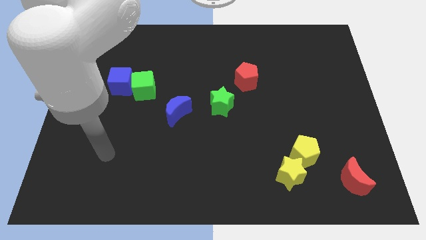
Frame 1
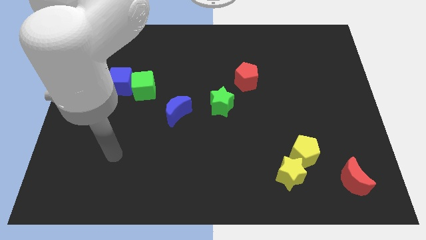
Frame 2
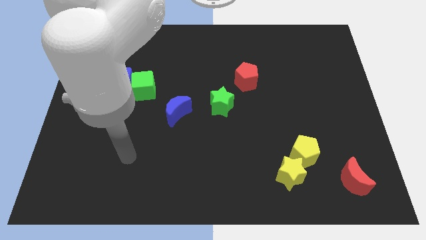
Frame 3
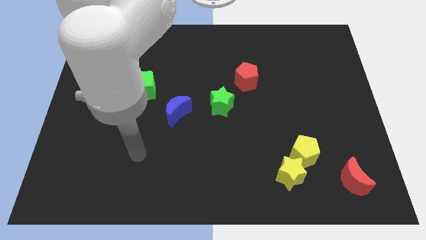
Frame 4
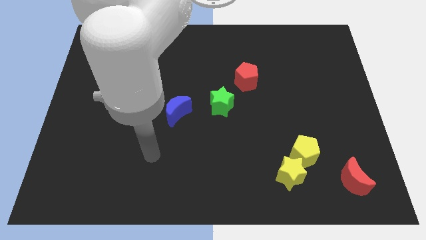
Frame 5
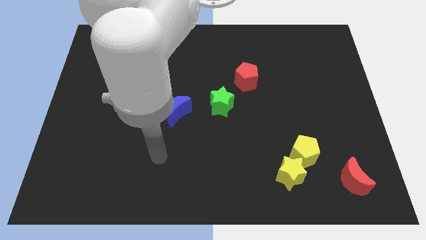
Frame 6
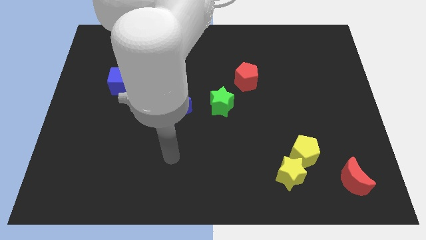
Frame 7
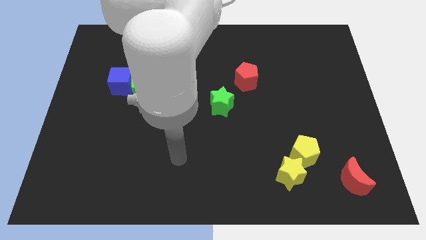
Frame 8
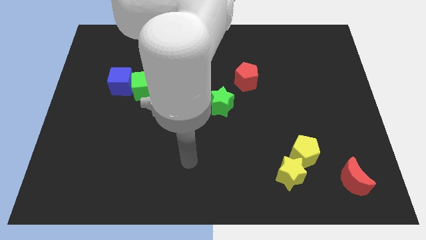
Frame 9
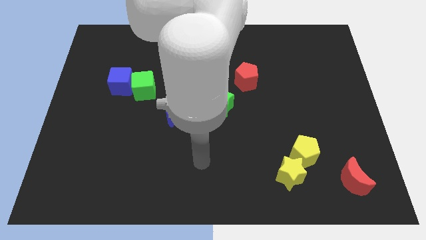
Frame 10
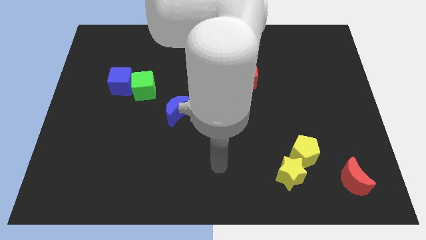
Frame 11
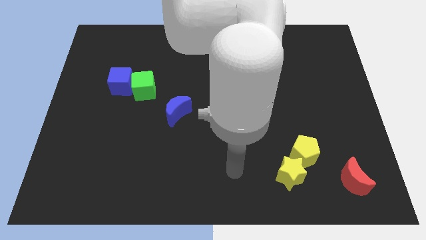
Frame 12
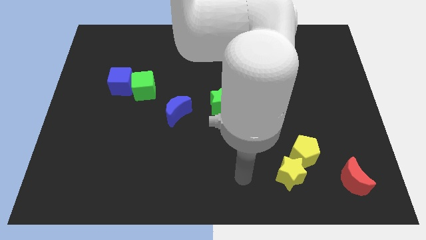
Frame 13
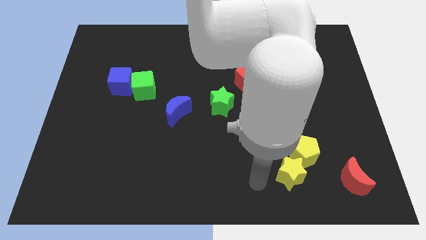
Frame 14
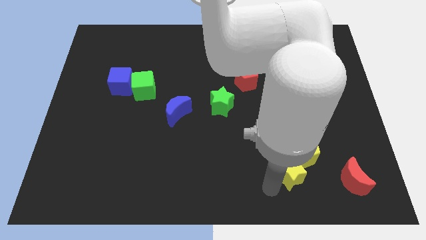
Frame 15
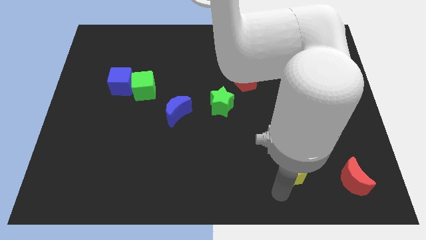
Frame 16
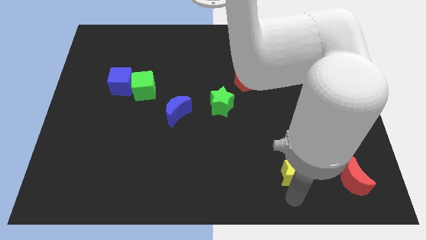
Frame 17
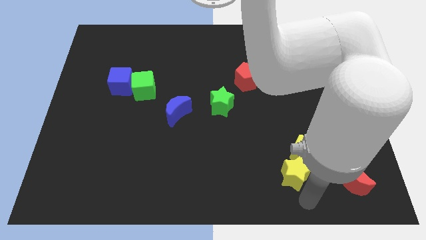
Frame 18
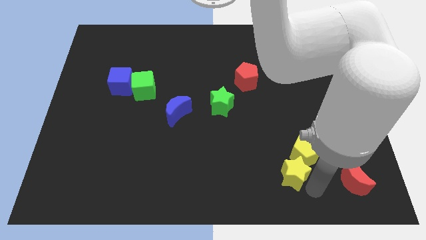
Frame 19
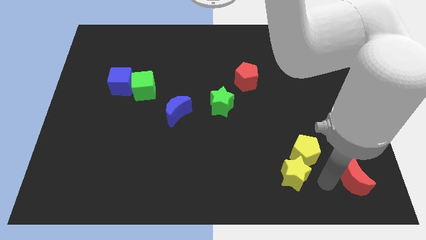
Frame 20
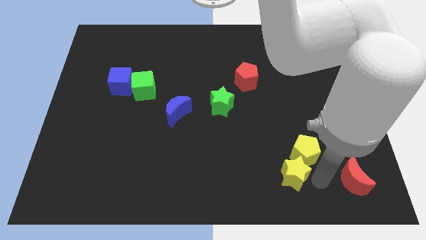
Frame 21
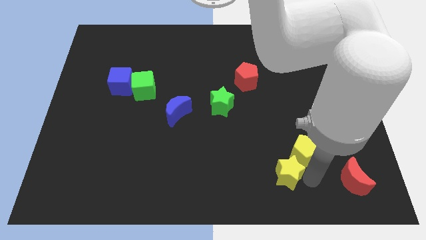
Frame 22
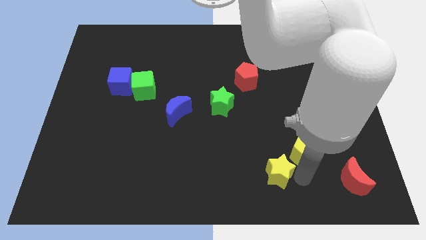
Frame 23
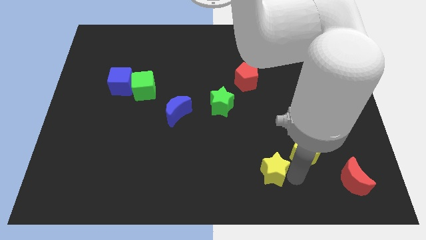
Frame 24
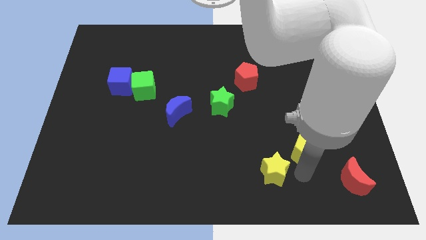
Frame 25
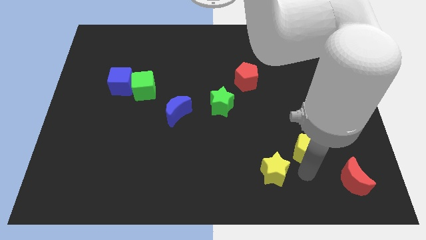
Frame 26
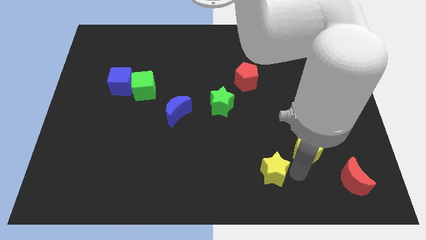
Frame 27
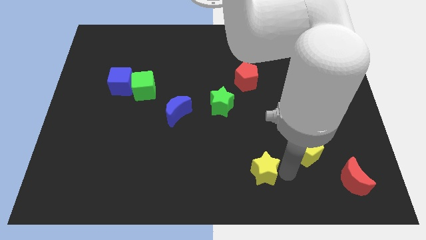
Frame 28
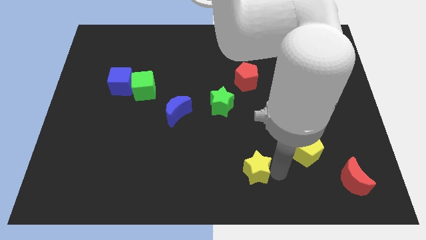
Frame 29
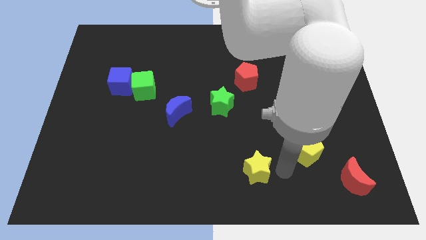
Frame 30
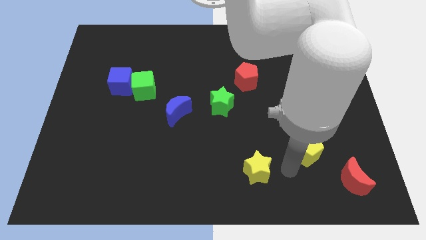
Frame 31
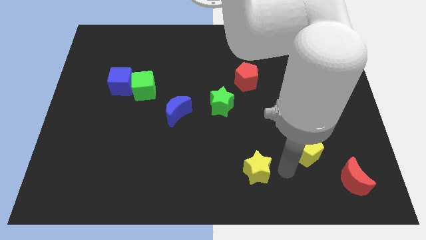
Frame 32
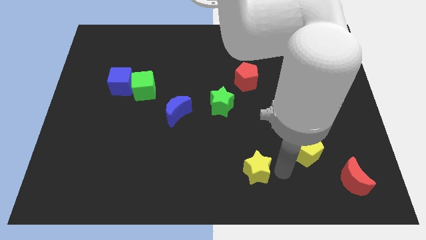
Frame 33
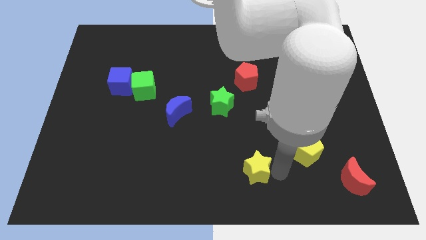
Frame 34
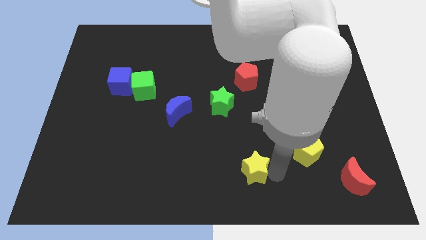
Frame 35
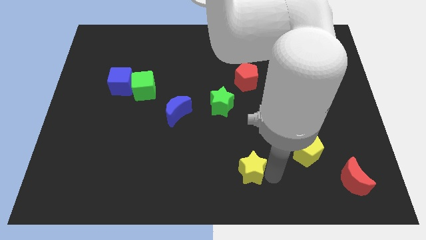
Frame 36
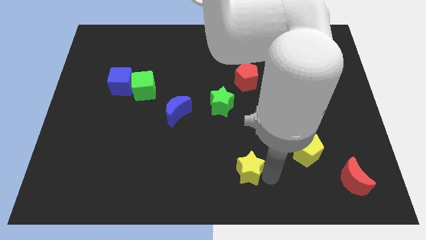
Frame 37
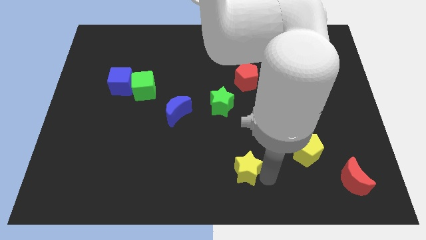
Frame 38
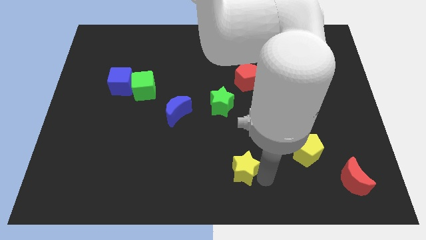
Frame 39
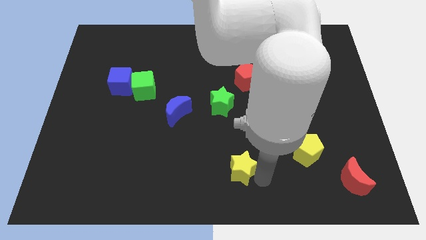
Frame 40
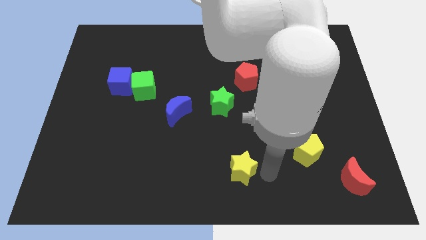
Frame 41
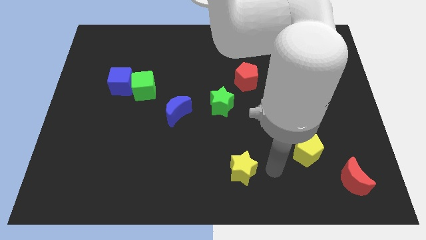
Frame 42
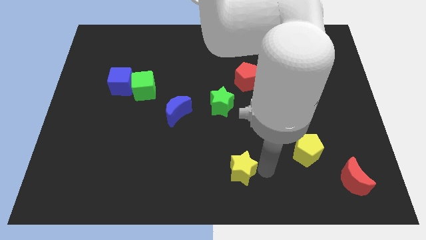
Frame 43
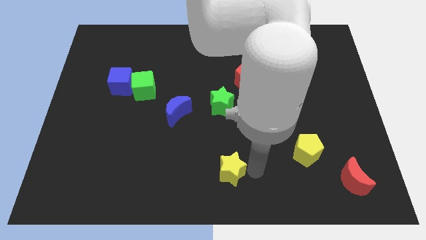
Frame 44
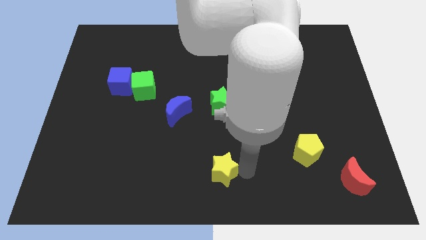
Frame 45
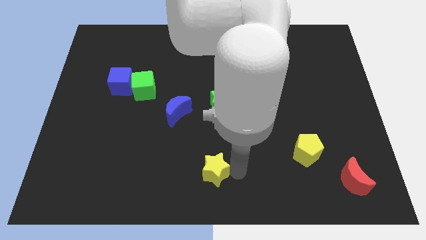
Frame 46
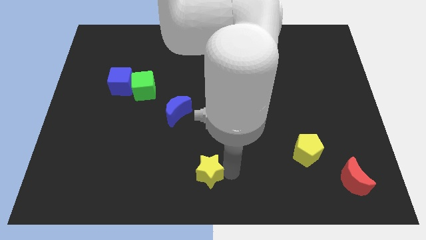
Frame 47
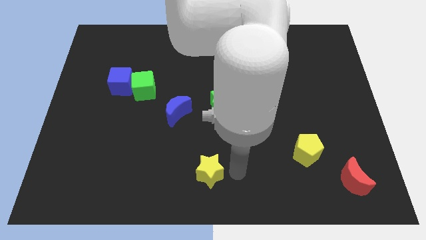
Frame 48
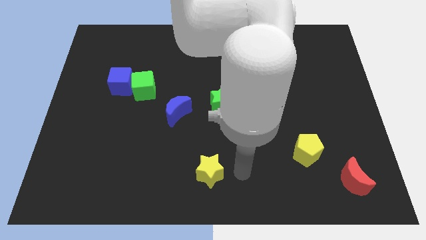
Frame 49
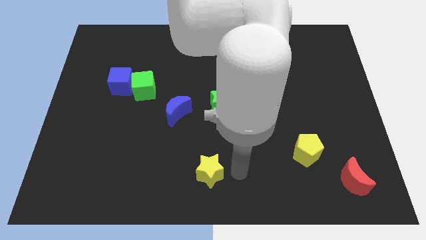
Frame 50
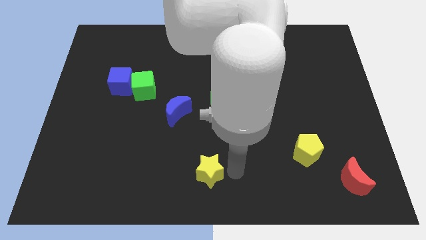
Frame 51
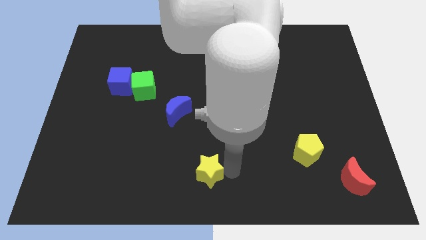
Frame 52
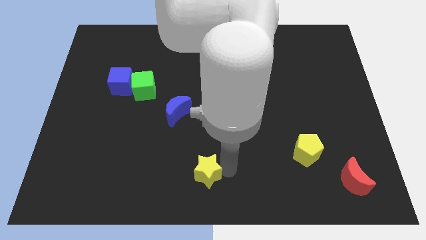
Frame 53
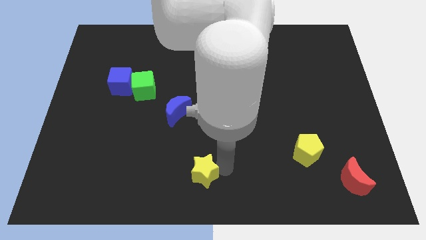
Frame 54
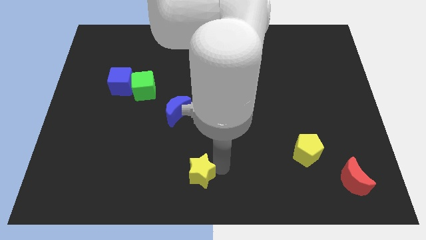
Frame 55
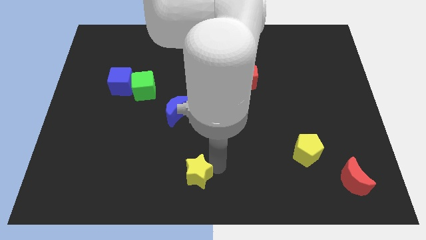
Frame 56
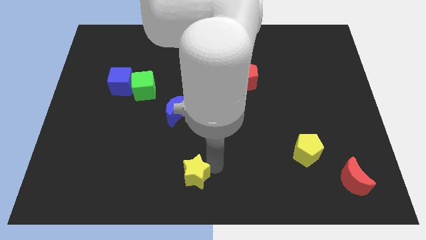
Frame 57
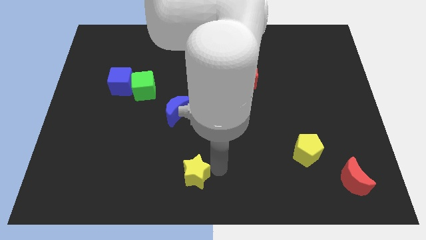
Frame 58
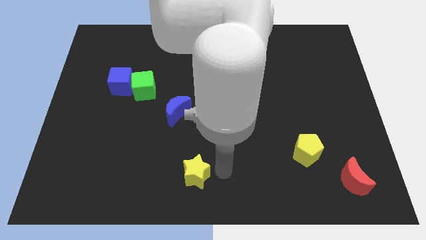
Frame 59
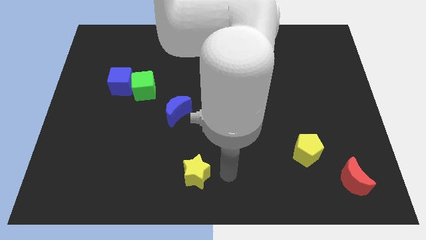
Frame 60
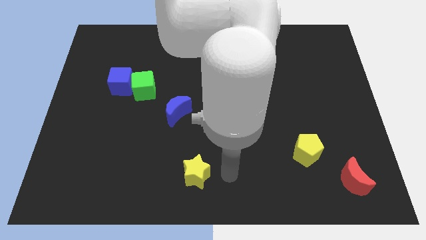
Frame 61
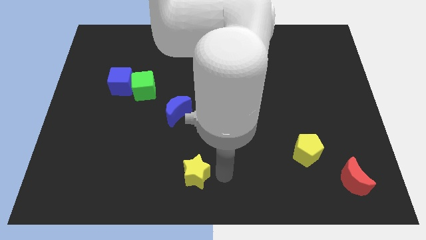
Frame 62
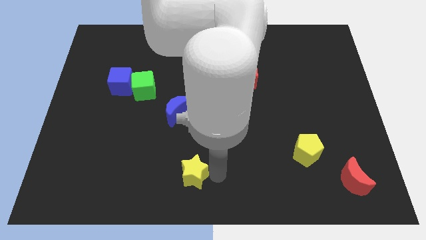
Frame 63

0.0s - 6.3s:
slide the yellow star left

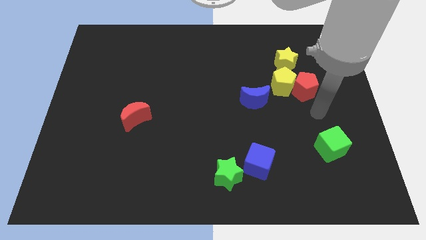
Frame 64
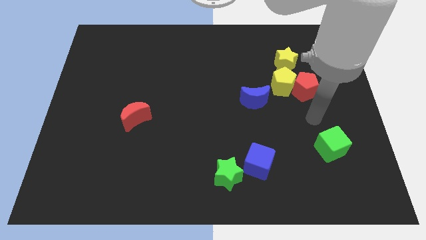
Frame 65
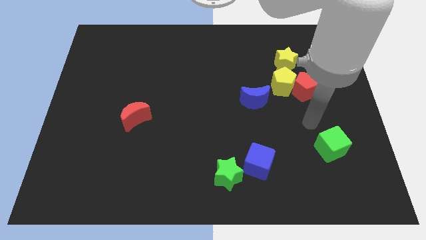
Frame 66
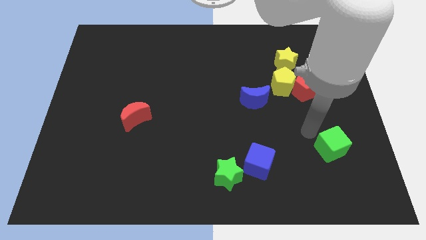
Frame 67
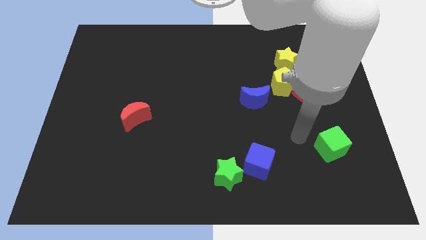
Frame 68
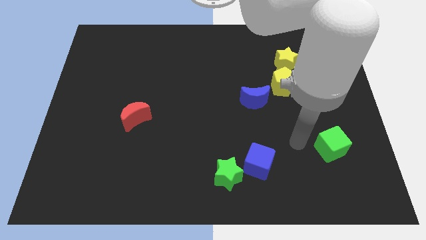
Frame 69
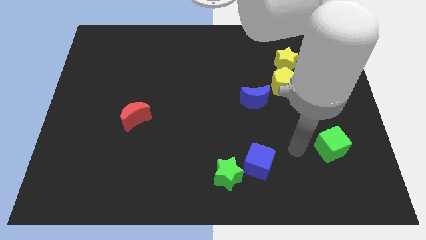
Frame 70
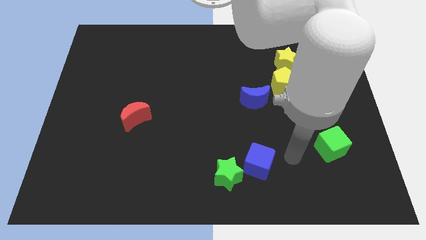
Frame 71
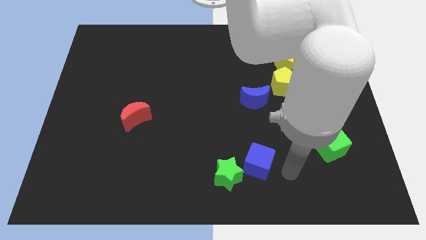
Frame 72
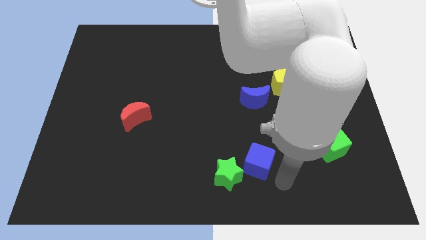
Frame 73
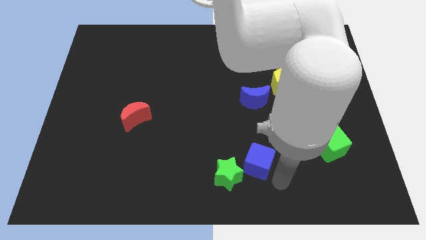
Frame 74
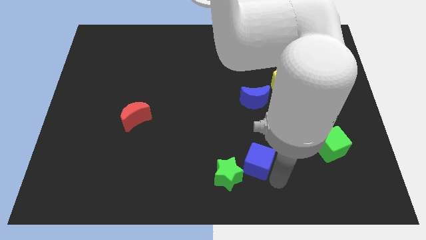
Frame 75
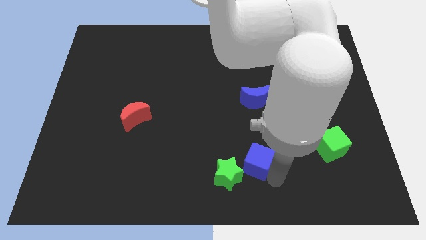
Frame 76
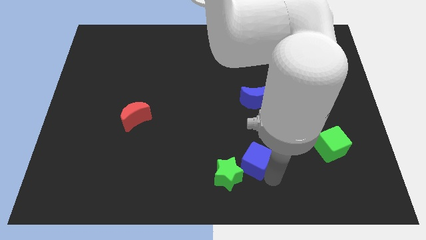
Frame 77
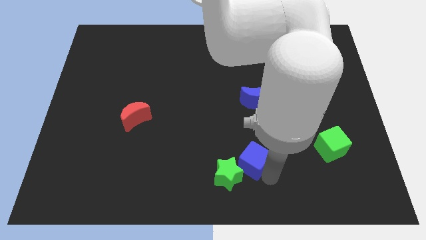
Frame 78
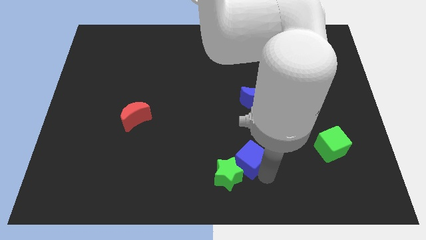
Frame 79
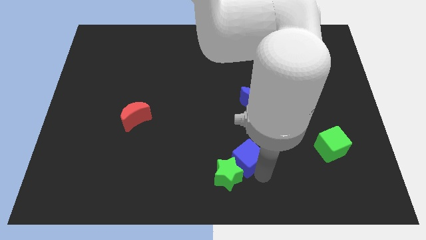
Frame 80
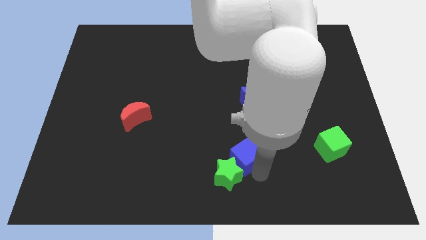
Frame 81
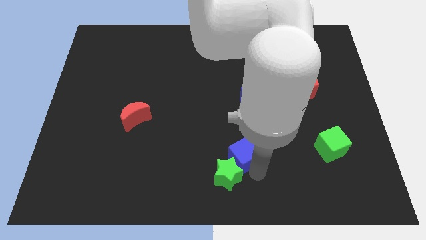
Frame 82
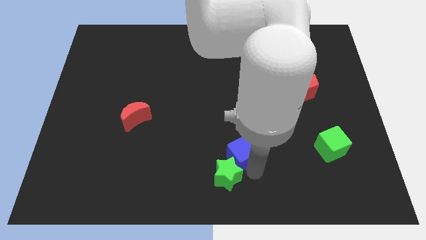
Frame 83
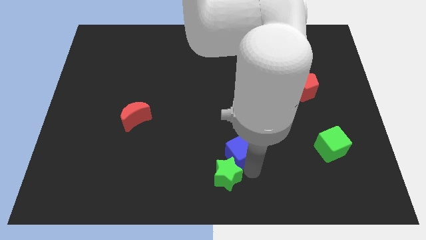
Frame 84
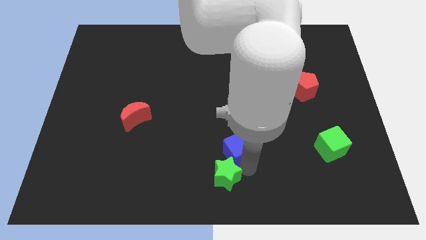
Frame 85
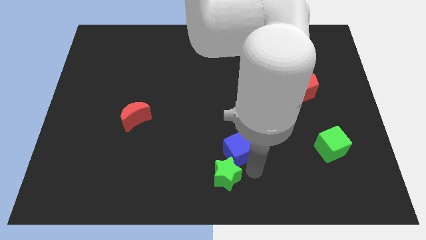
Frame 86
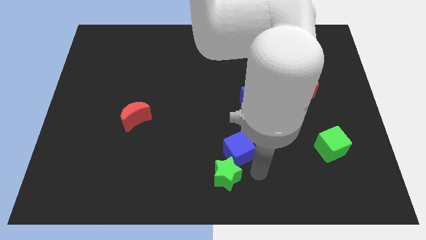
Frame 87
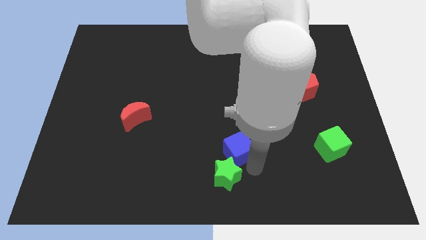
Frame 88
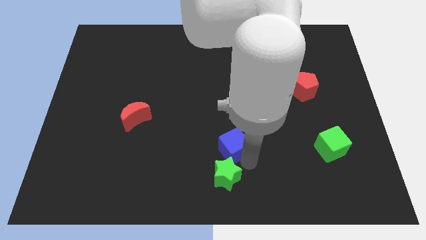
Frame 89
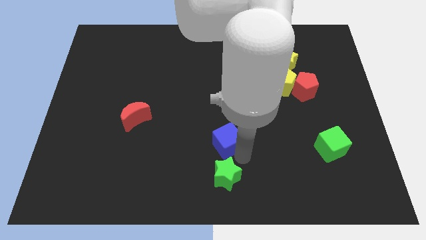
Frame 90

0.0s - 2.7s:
push the blue cube a little bit up and left
